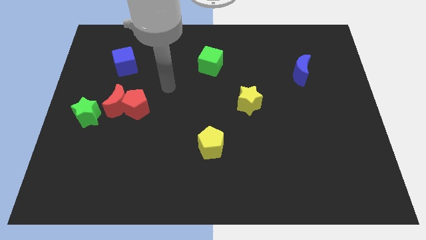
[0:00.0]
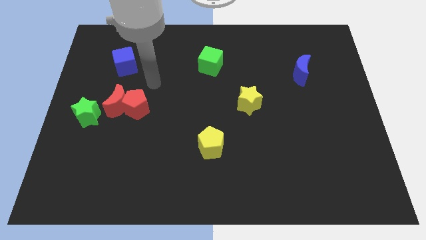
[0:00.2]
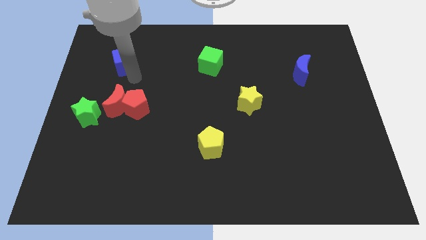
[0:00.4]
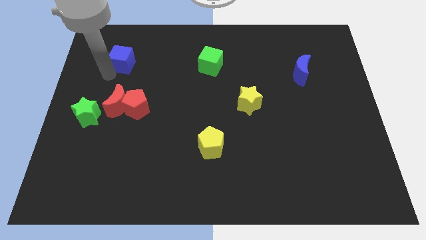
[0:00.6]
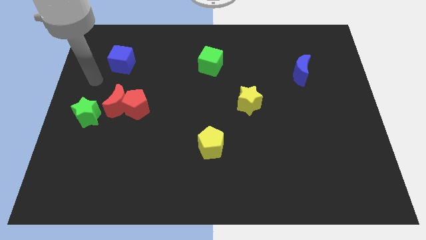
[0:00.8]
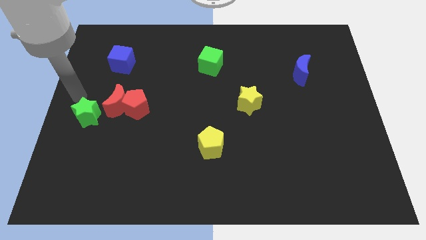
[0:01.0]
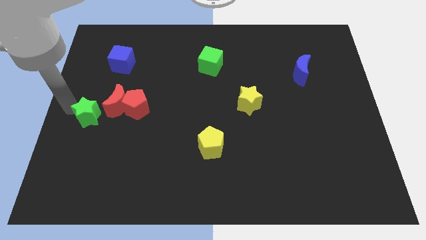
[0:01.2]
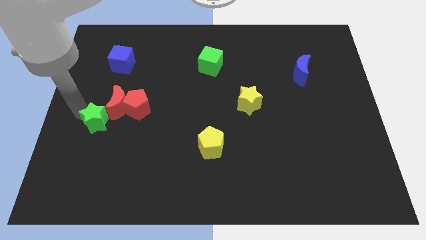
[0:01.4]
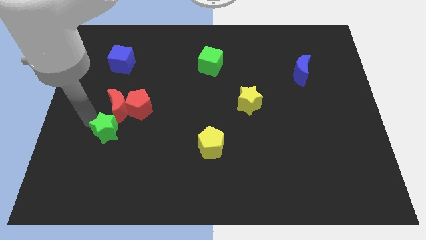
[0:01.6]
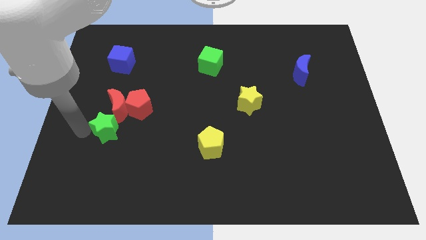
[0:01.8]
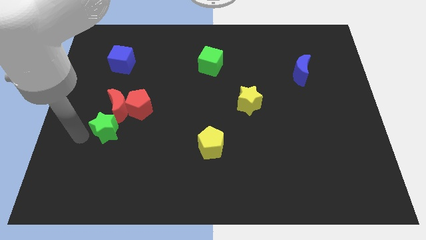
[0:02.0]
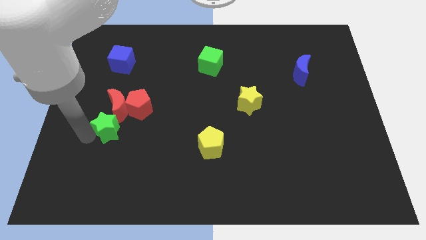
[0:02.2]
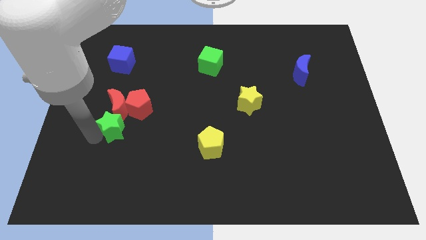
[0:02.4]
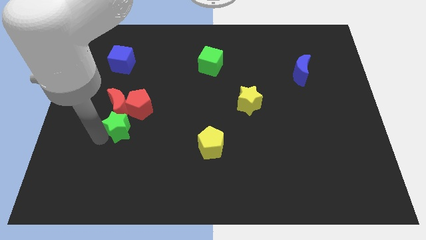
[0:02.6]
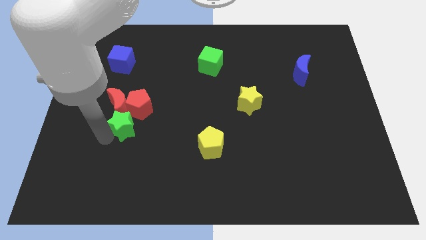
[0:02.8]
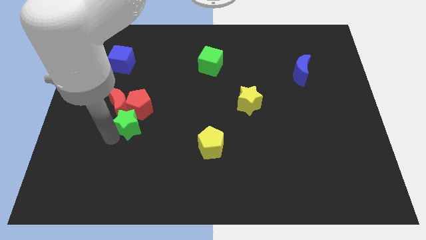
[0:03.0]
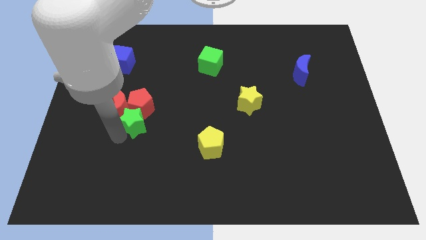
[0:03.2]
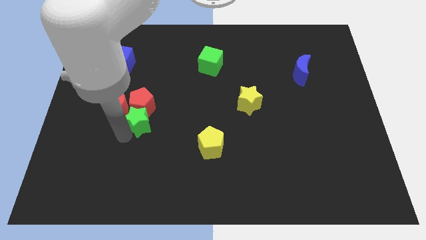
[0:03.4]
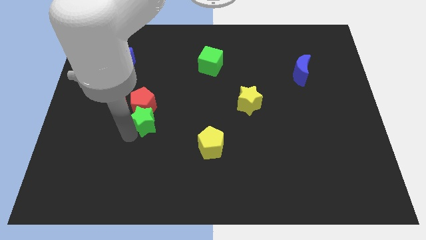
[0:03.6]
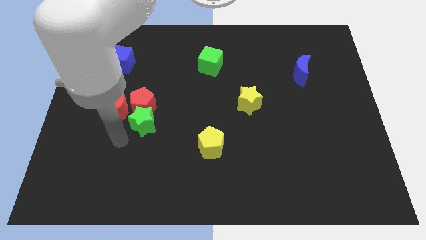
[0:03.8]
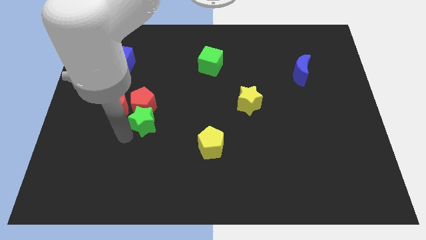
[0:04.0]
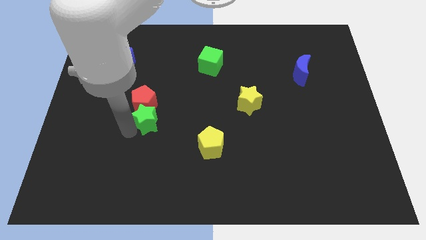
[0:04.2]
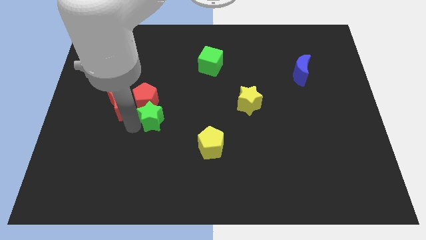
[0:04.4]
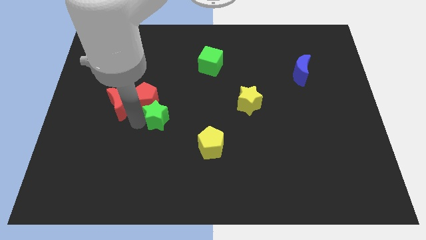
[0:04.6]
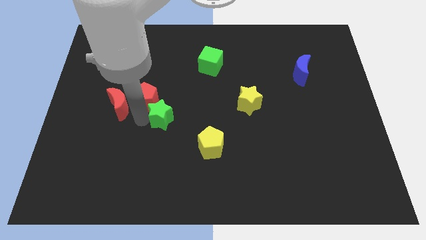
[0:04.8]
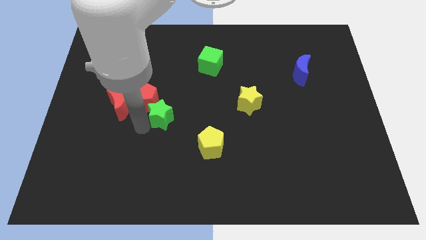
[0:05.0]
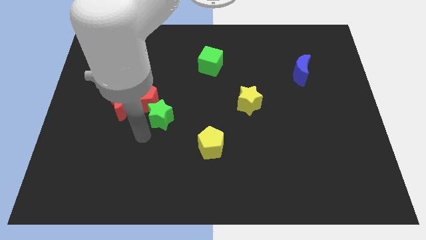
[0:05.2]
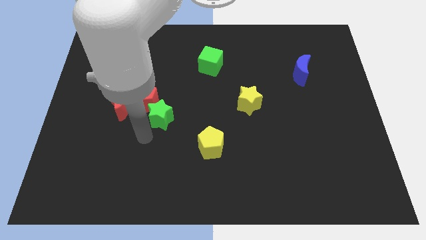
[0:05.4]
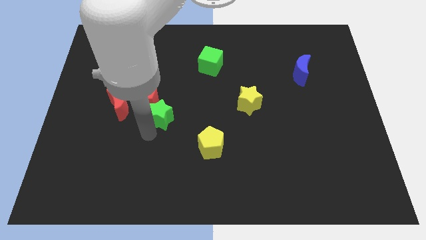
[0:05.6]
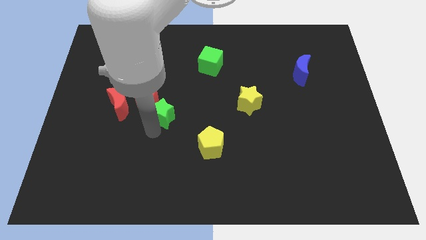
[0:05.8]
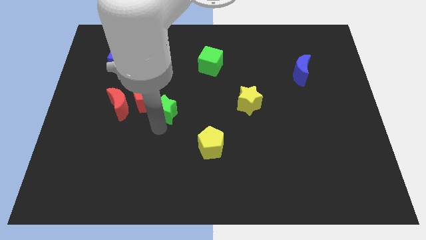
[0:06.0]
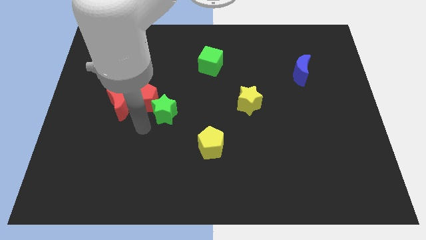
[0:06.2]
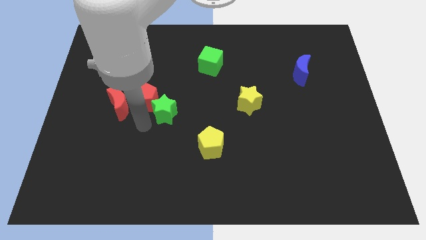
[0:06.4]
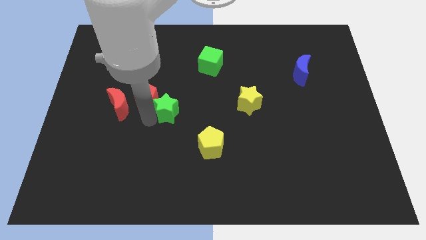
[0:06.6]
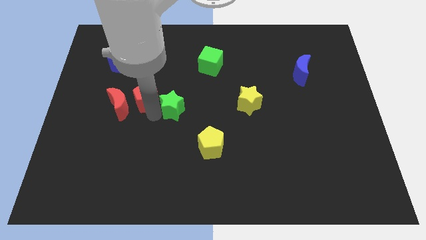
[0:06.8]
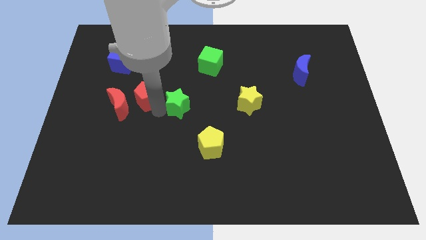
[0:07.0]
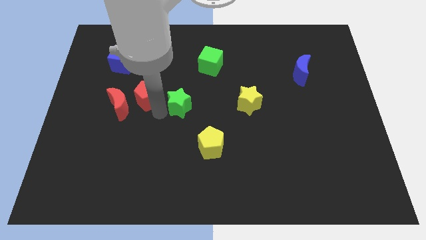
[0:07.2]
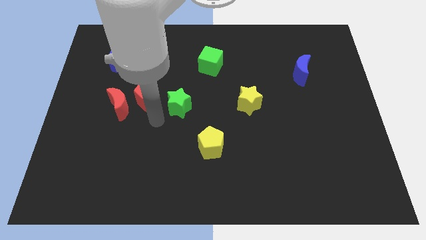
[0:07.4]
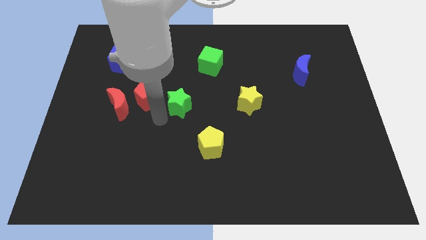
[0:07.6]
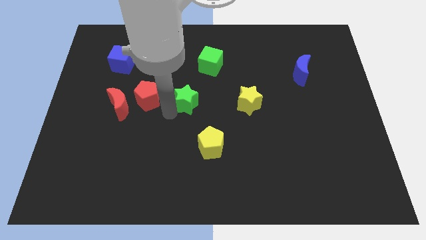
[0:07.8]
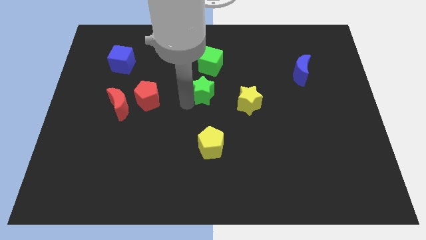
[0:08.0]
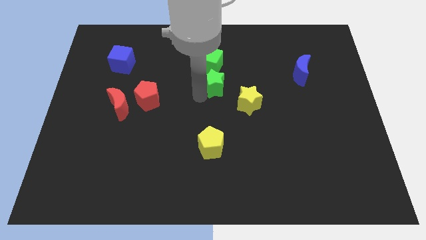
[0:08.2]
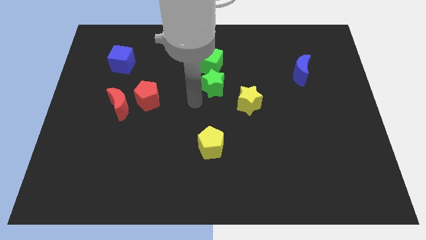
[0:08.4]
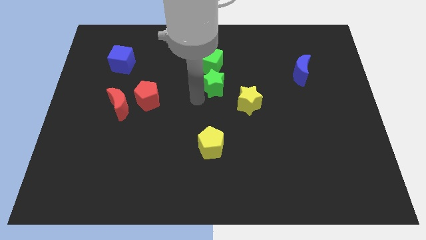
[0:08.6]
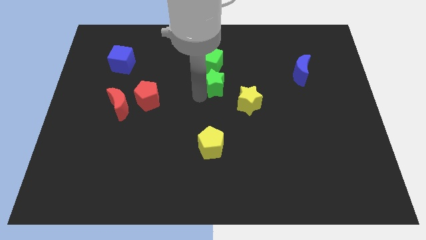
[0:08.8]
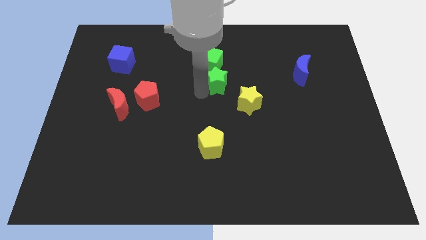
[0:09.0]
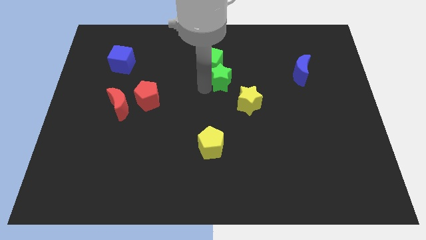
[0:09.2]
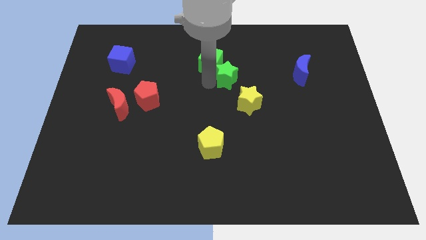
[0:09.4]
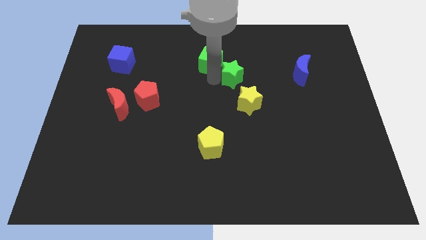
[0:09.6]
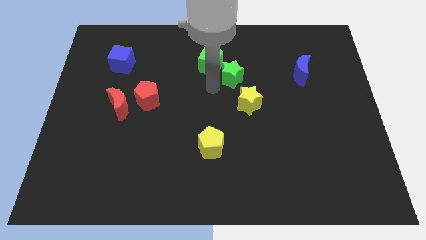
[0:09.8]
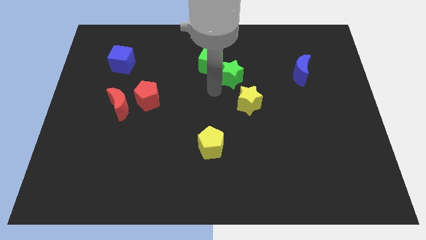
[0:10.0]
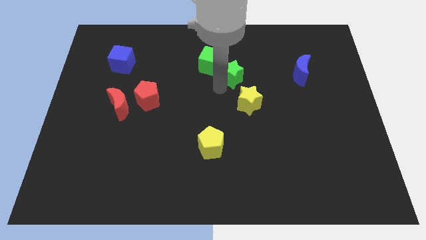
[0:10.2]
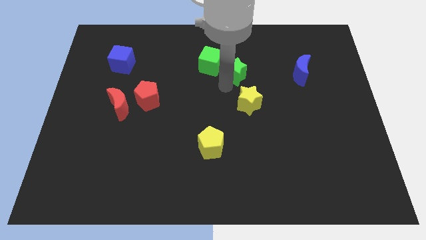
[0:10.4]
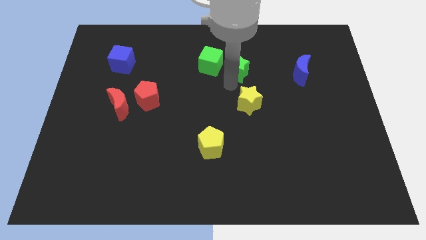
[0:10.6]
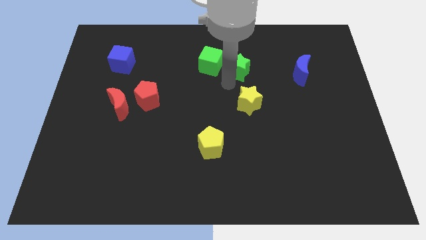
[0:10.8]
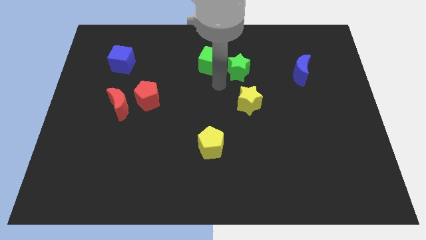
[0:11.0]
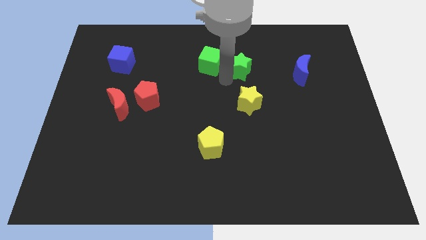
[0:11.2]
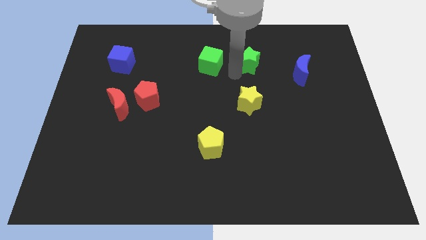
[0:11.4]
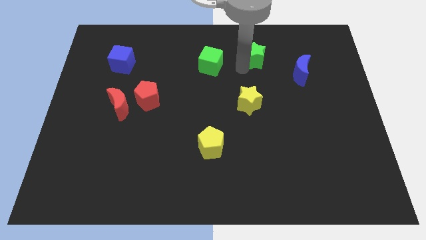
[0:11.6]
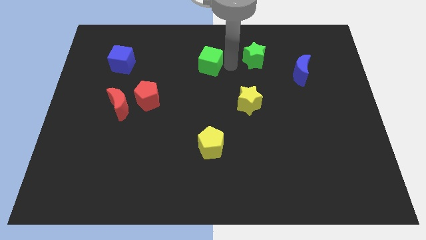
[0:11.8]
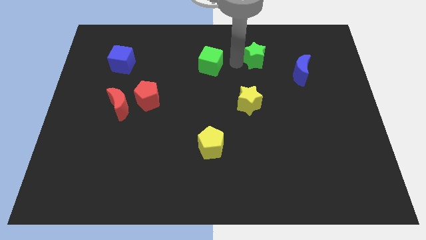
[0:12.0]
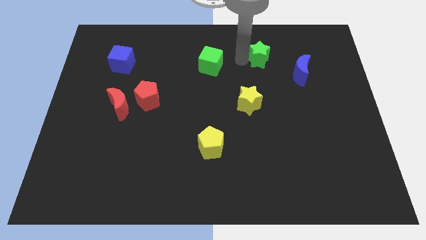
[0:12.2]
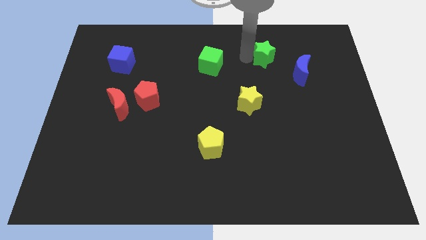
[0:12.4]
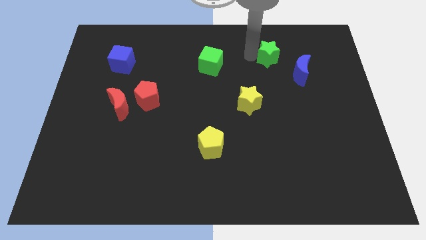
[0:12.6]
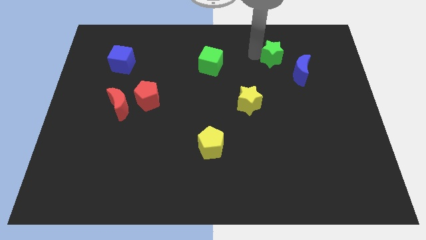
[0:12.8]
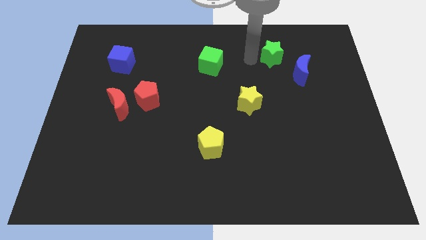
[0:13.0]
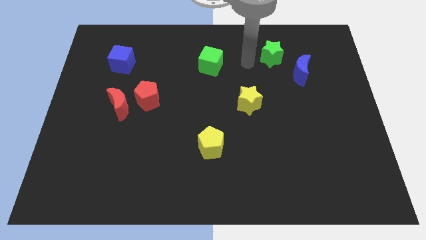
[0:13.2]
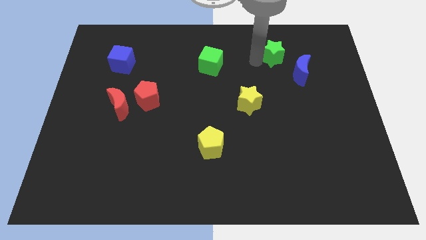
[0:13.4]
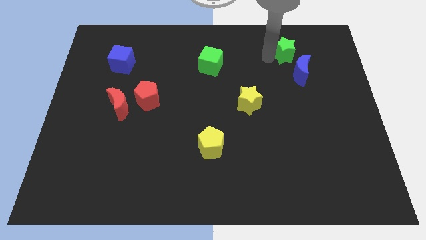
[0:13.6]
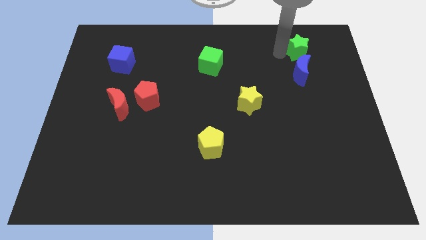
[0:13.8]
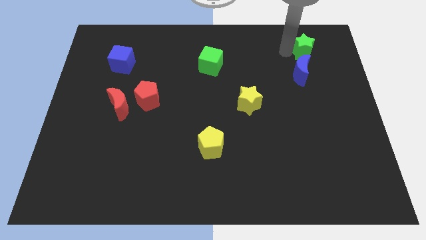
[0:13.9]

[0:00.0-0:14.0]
put the green star diagonally up and to the right of the blue moon
